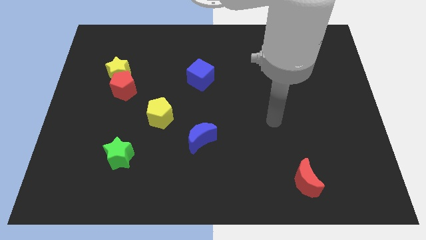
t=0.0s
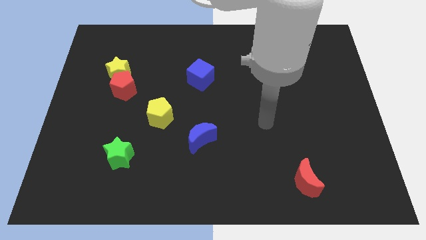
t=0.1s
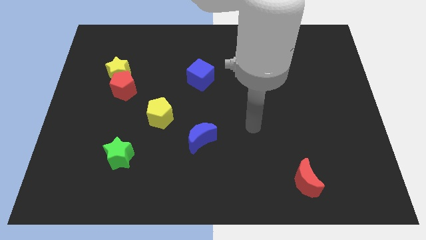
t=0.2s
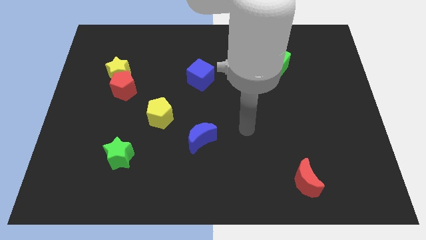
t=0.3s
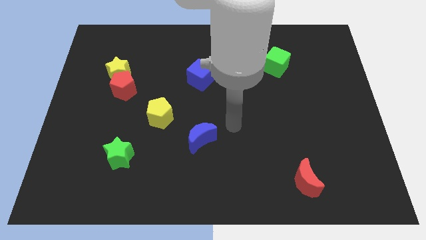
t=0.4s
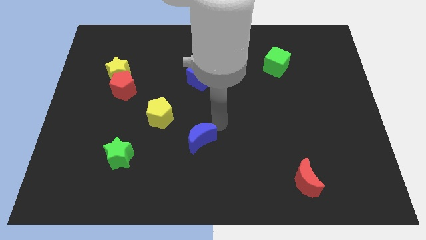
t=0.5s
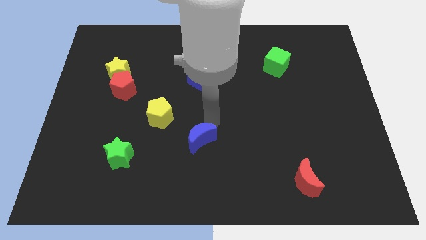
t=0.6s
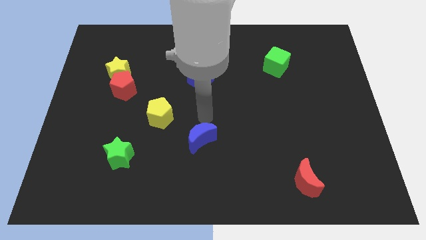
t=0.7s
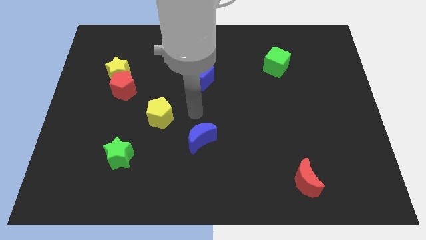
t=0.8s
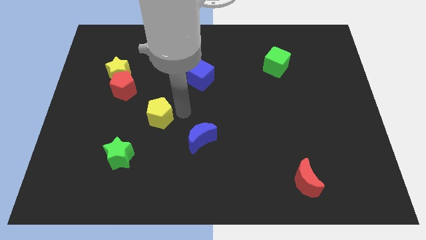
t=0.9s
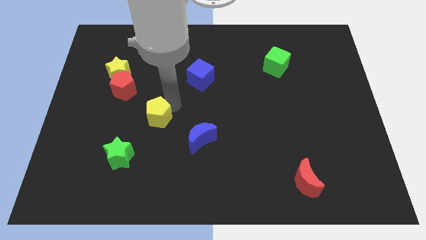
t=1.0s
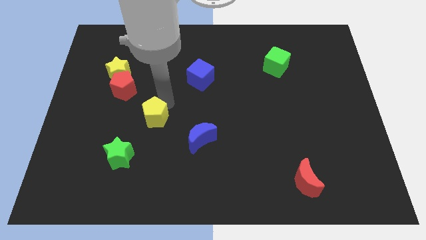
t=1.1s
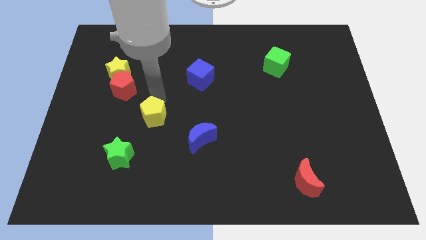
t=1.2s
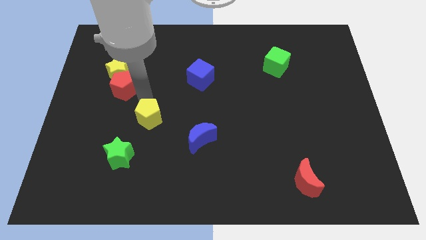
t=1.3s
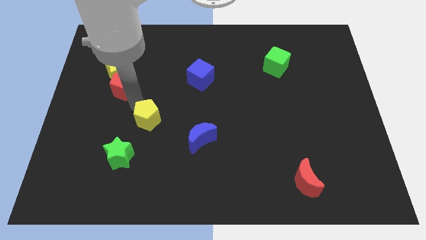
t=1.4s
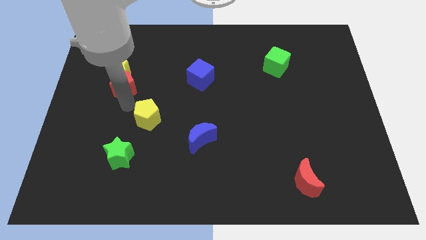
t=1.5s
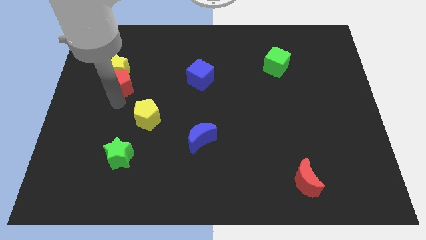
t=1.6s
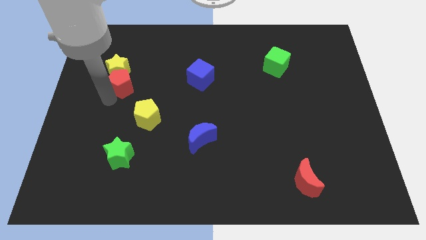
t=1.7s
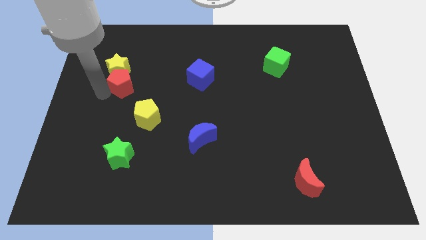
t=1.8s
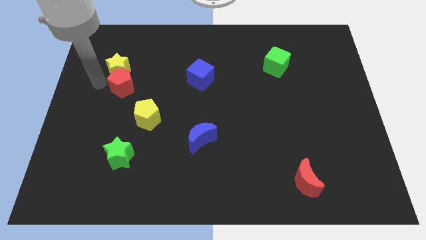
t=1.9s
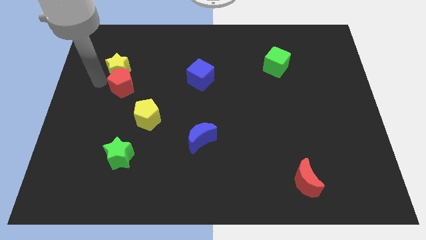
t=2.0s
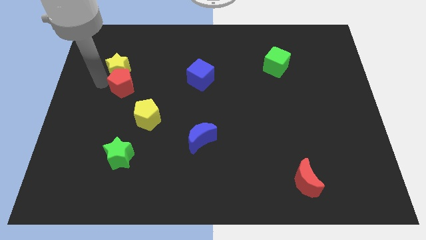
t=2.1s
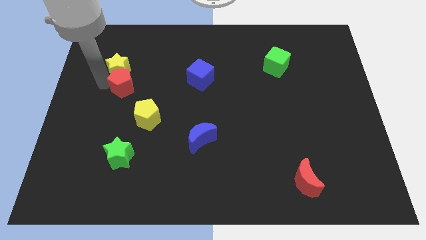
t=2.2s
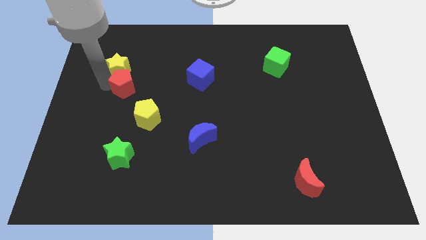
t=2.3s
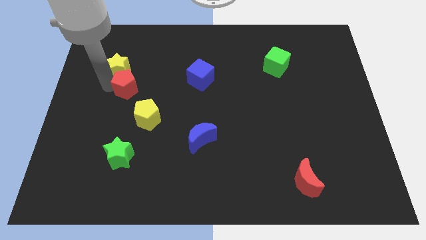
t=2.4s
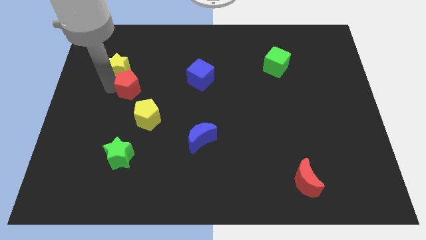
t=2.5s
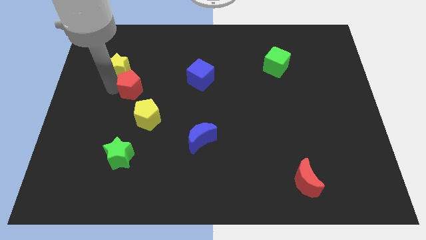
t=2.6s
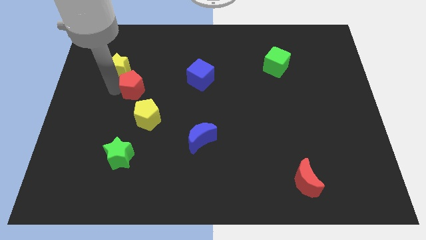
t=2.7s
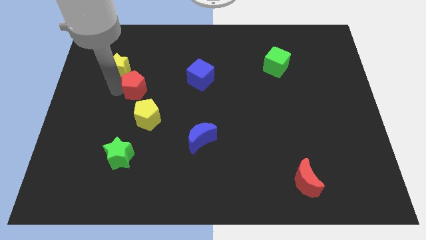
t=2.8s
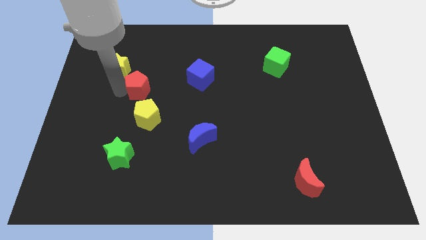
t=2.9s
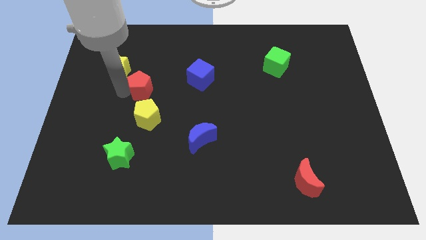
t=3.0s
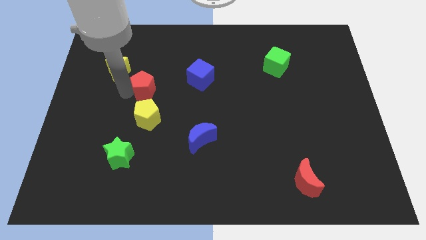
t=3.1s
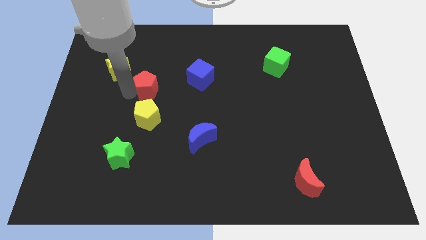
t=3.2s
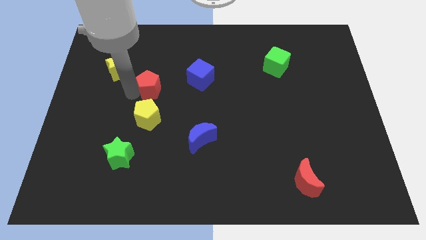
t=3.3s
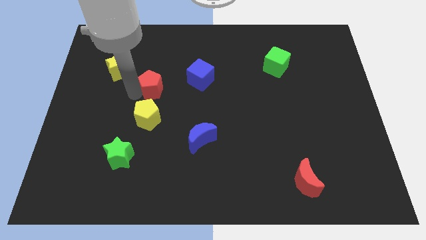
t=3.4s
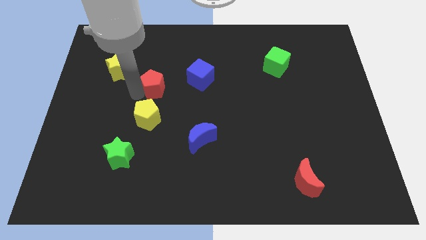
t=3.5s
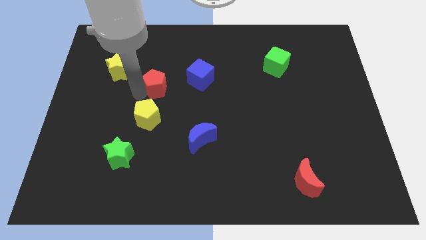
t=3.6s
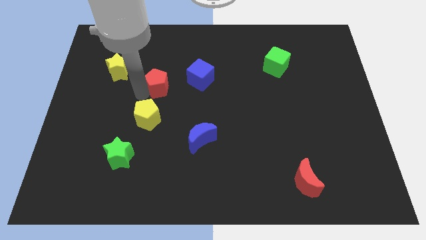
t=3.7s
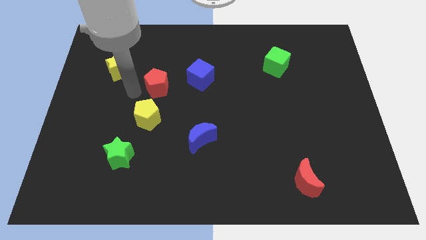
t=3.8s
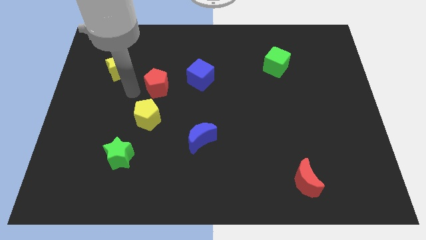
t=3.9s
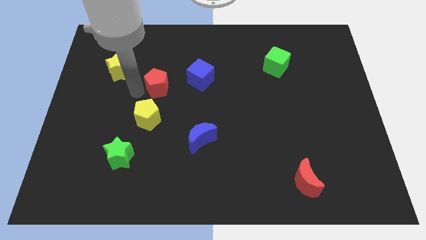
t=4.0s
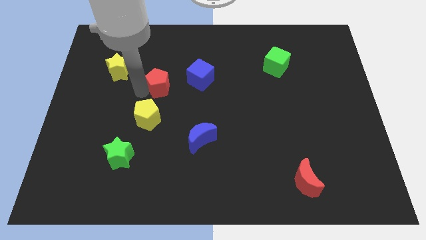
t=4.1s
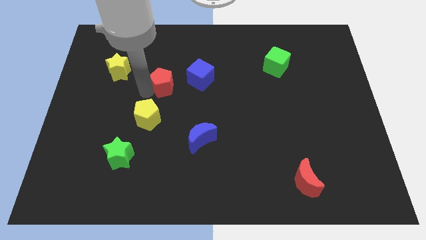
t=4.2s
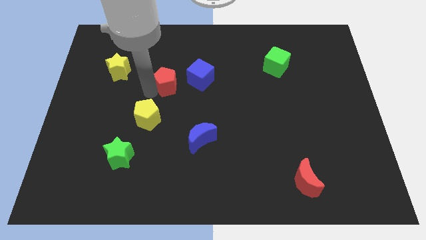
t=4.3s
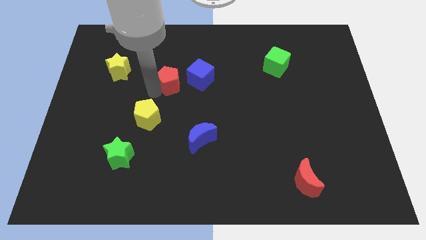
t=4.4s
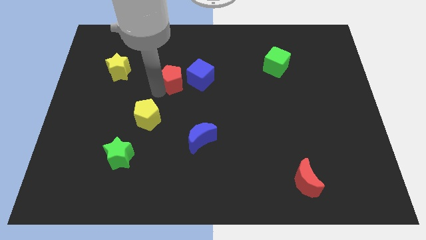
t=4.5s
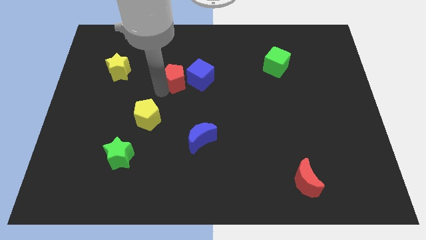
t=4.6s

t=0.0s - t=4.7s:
move the red pentagon close to the blue cube

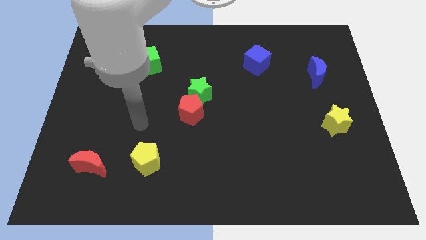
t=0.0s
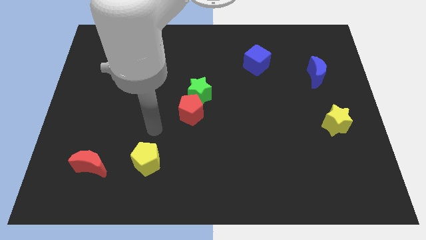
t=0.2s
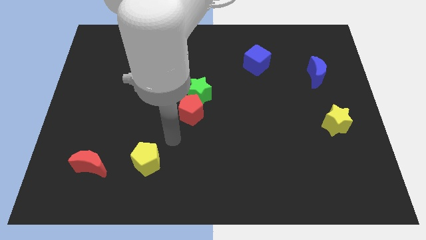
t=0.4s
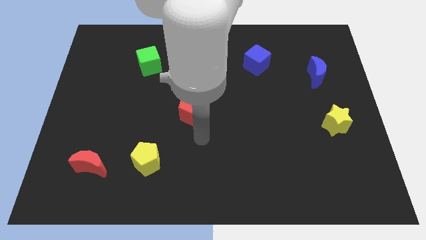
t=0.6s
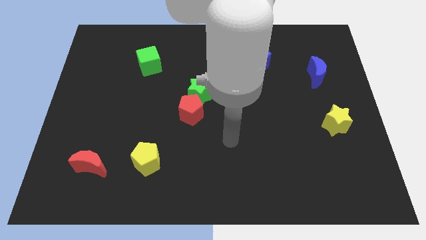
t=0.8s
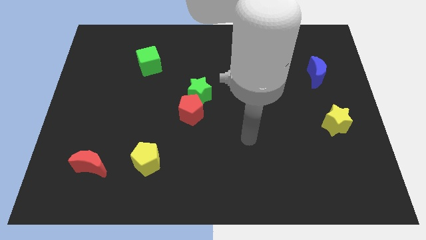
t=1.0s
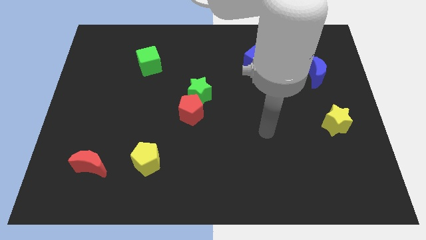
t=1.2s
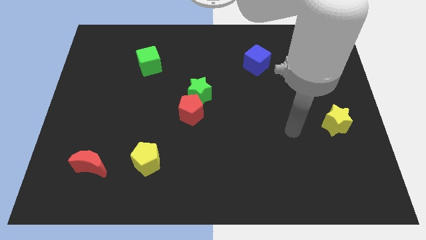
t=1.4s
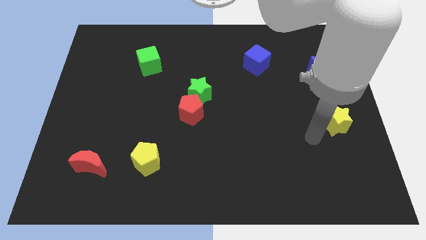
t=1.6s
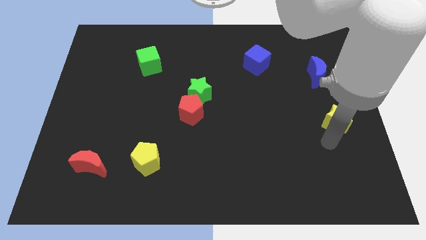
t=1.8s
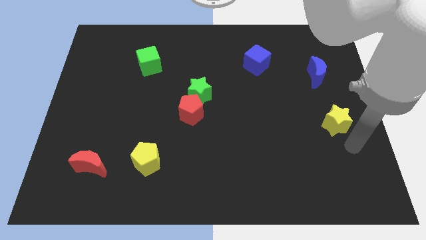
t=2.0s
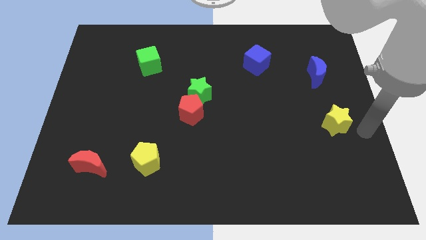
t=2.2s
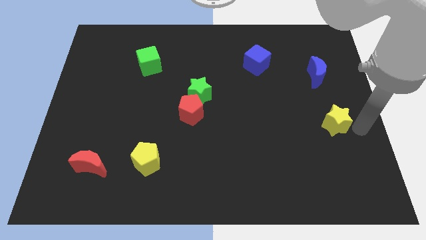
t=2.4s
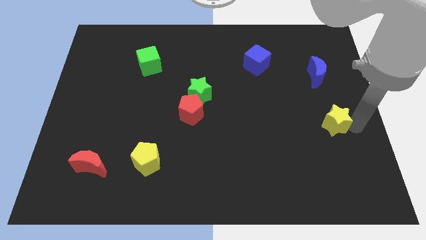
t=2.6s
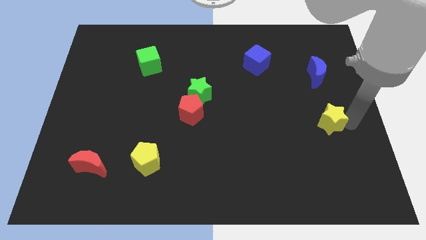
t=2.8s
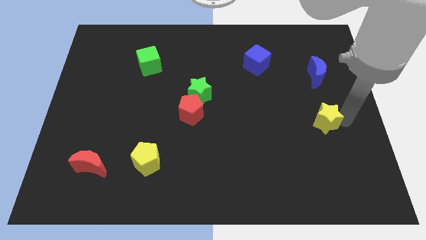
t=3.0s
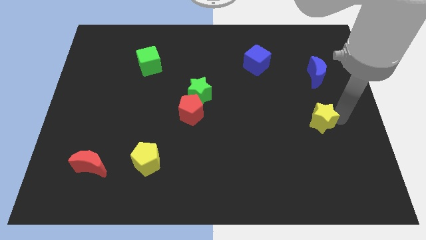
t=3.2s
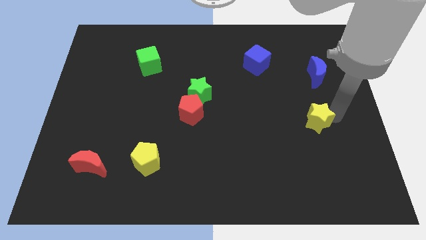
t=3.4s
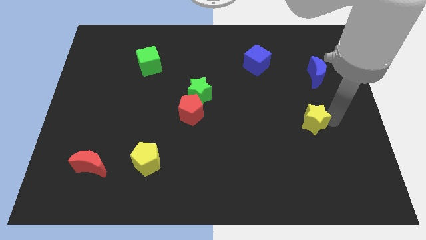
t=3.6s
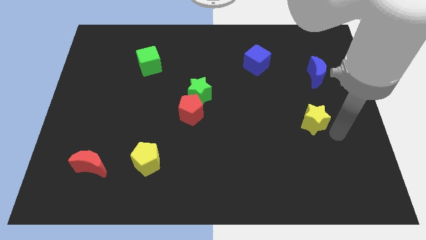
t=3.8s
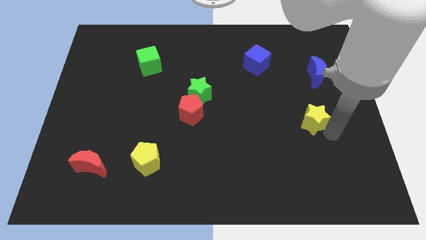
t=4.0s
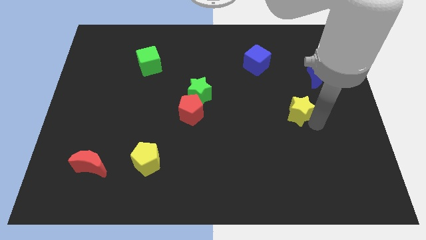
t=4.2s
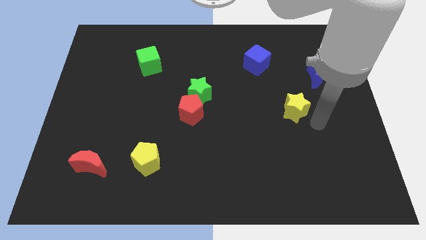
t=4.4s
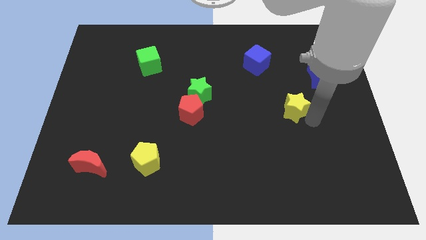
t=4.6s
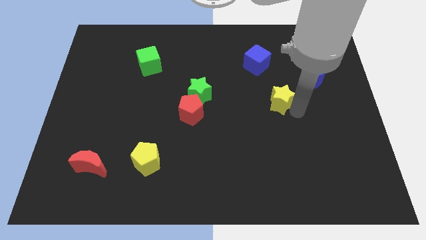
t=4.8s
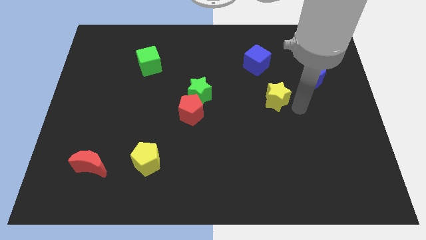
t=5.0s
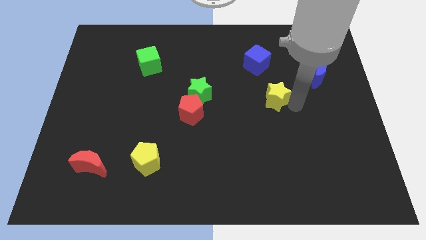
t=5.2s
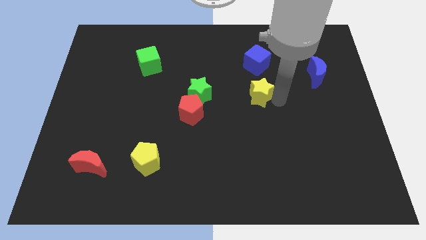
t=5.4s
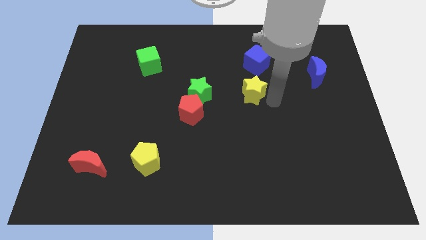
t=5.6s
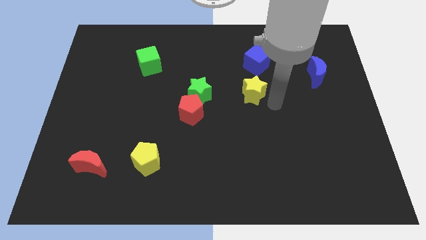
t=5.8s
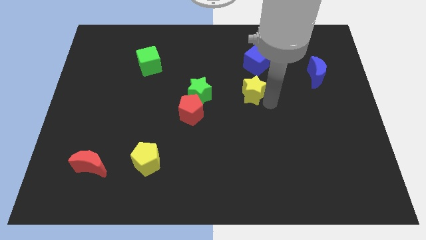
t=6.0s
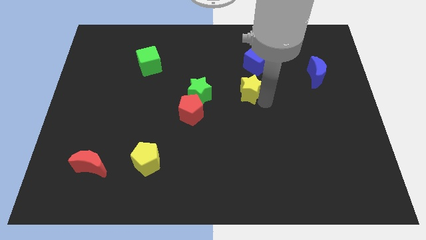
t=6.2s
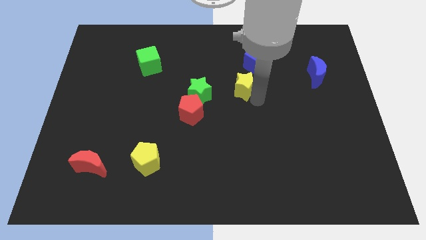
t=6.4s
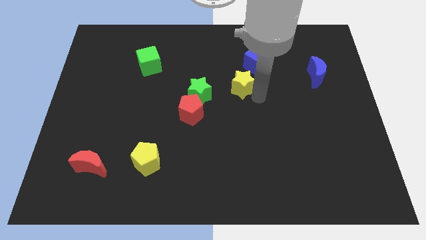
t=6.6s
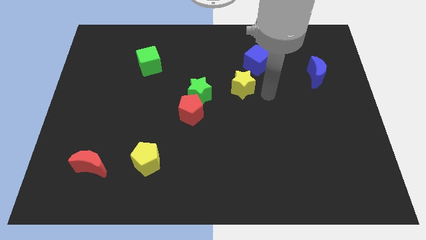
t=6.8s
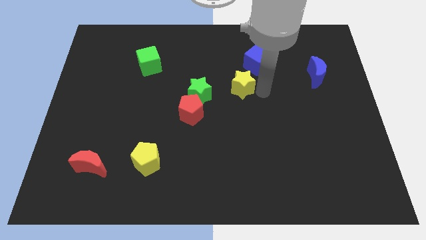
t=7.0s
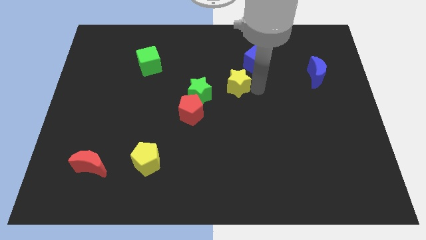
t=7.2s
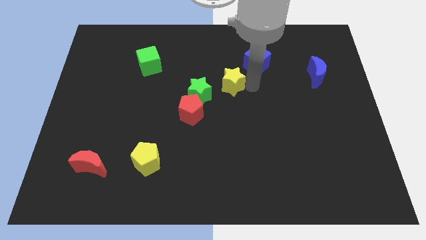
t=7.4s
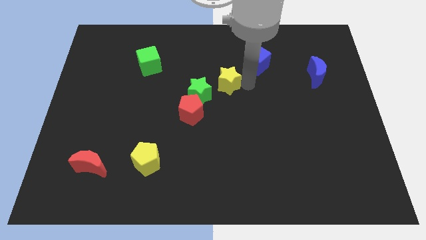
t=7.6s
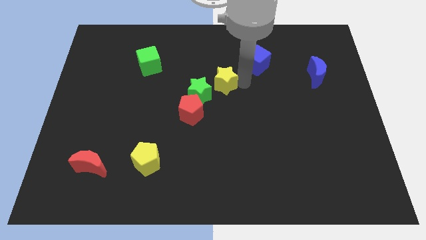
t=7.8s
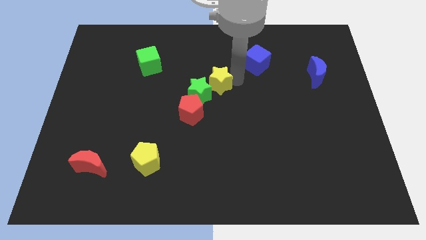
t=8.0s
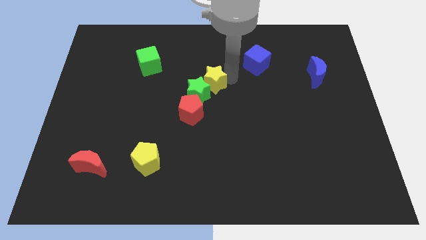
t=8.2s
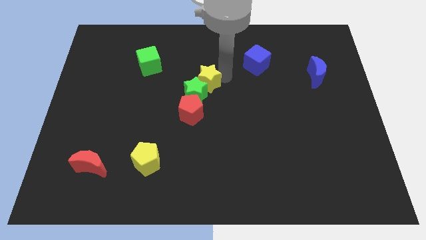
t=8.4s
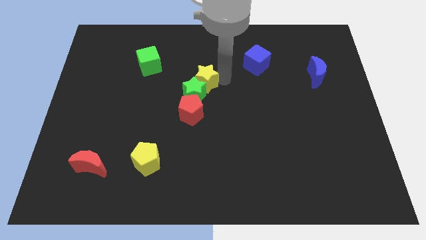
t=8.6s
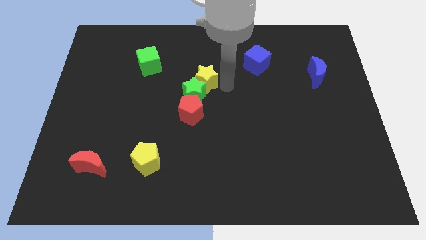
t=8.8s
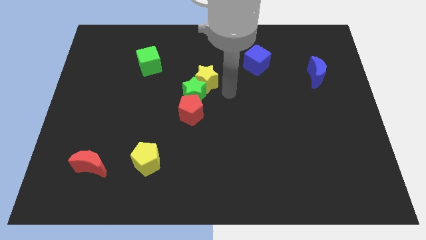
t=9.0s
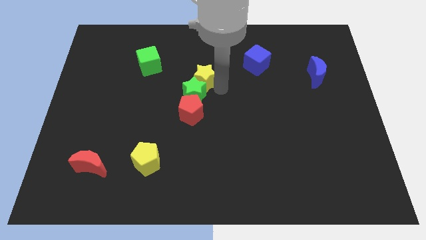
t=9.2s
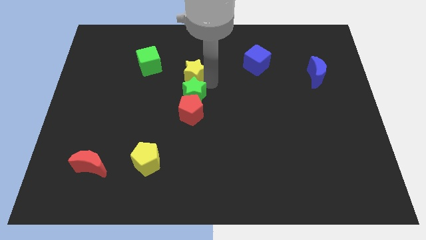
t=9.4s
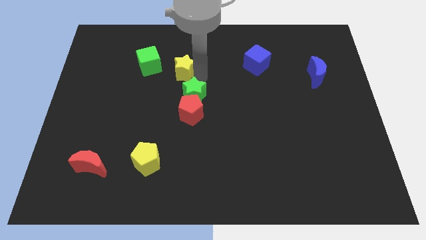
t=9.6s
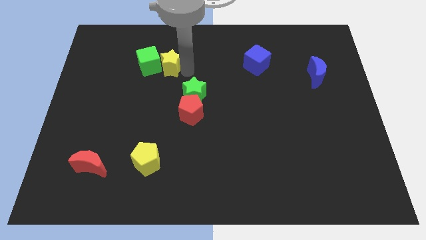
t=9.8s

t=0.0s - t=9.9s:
put the yellow star close to the green cube
